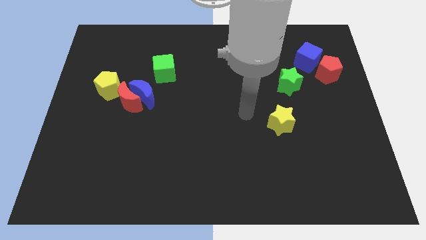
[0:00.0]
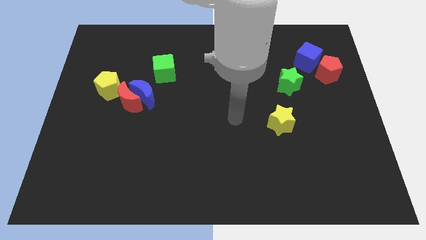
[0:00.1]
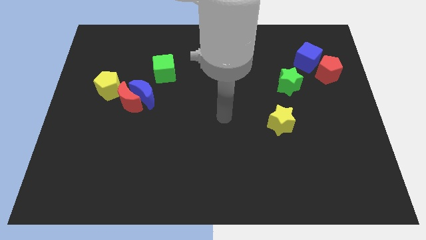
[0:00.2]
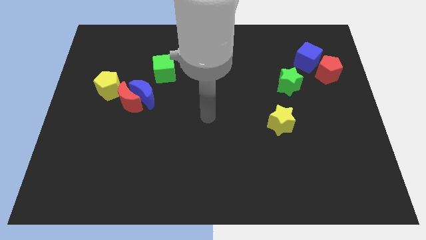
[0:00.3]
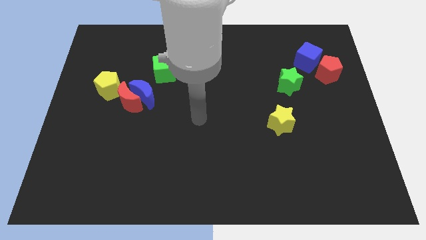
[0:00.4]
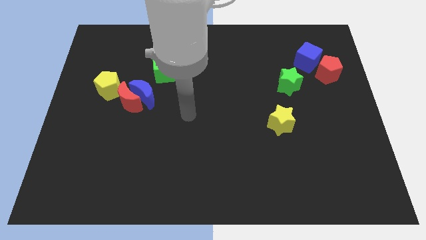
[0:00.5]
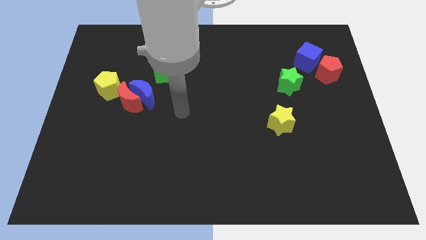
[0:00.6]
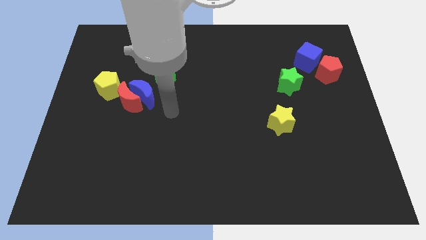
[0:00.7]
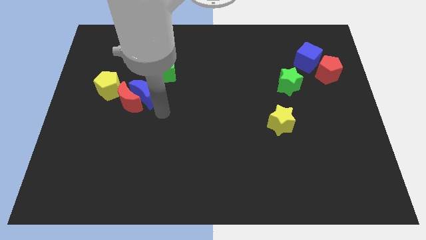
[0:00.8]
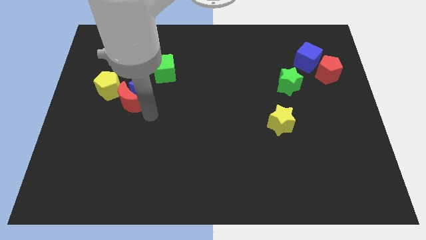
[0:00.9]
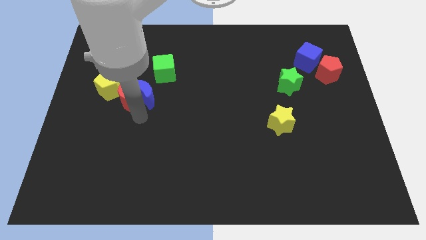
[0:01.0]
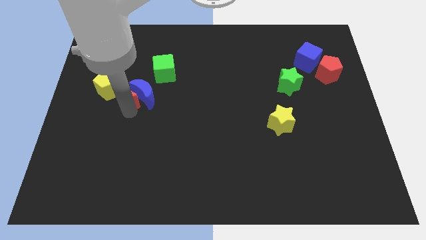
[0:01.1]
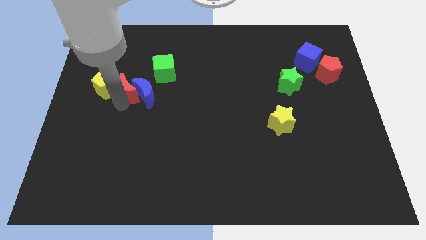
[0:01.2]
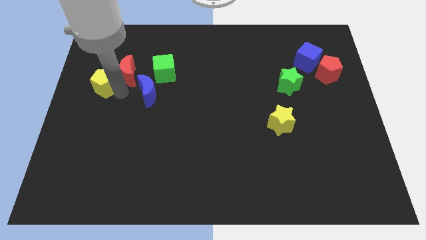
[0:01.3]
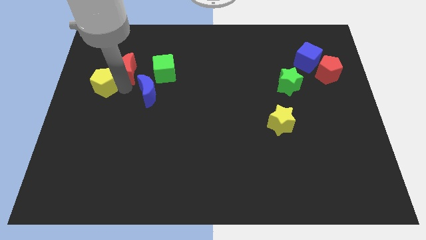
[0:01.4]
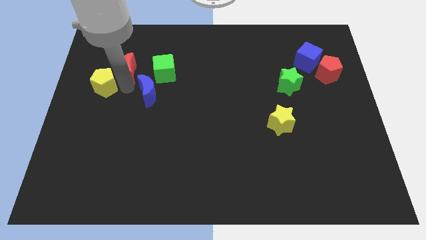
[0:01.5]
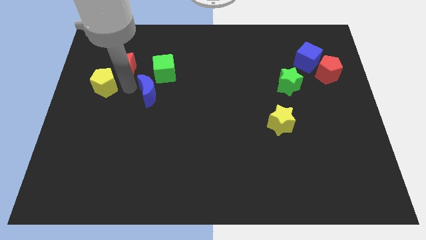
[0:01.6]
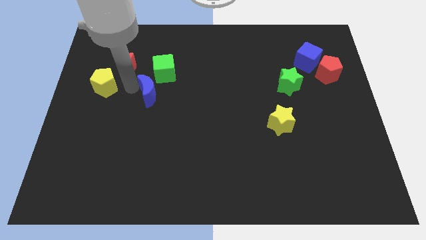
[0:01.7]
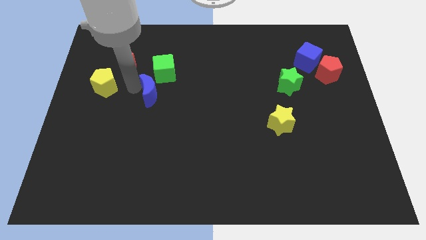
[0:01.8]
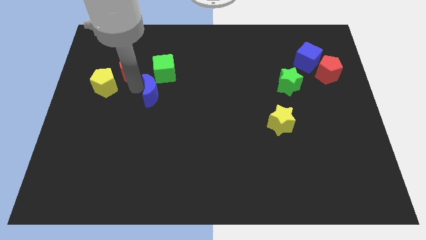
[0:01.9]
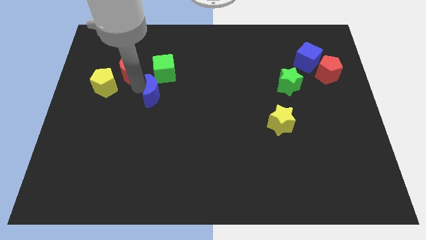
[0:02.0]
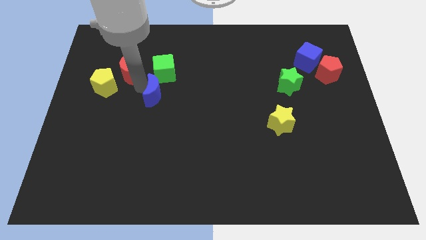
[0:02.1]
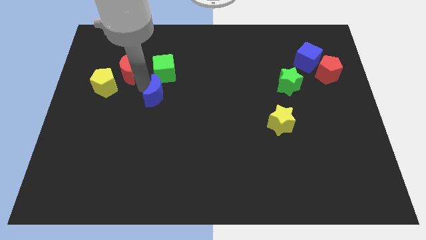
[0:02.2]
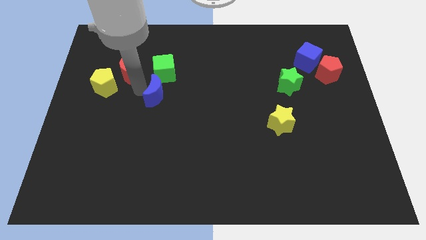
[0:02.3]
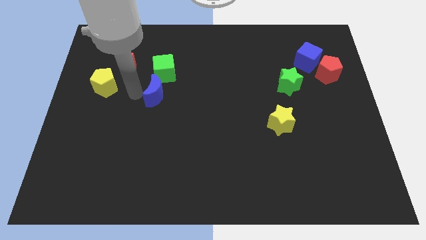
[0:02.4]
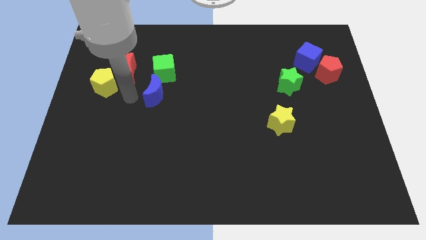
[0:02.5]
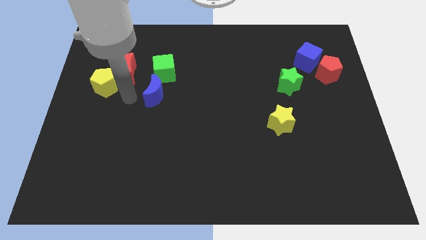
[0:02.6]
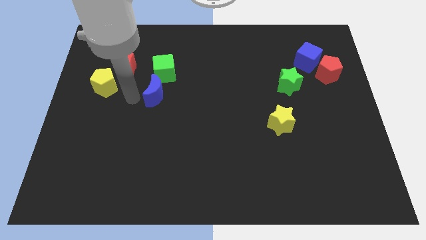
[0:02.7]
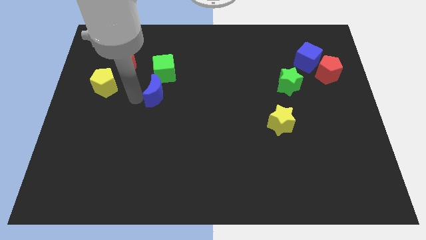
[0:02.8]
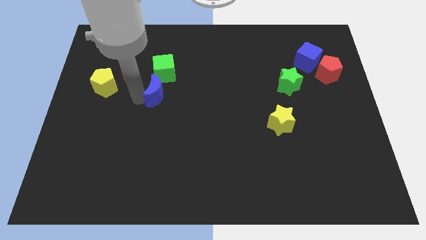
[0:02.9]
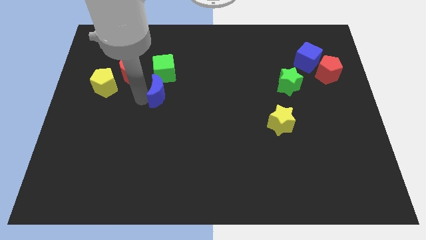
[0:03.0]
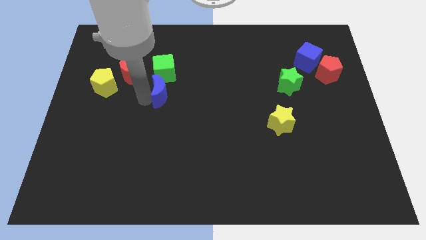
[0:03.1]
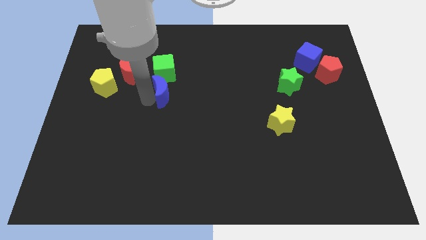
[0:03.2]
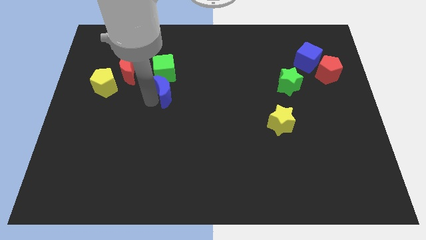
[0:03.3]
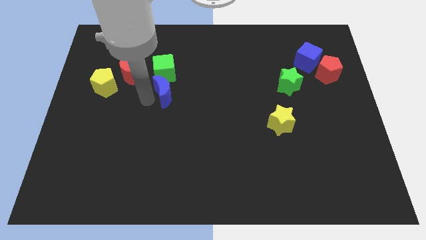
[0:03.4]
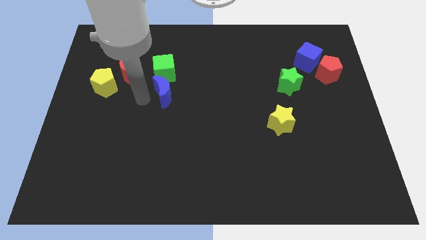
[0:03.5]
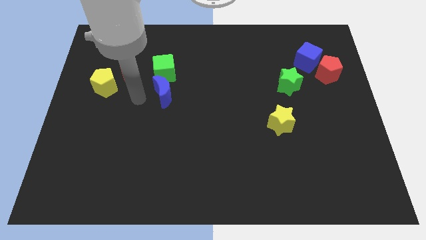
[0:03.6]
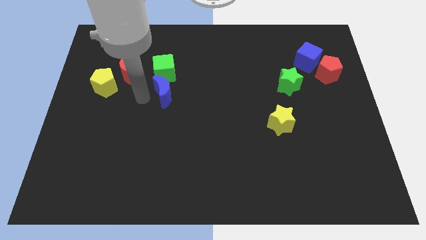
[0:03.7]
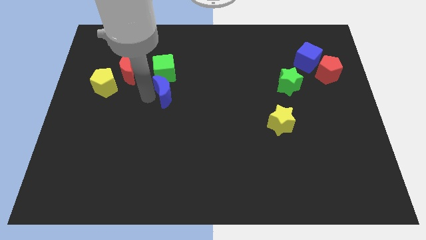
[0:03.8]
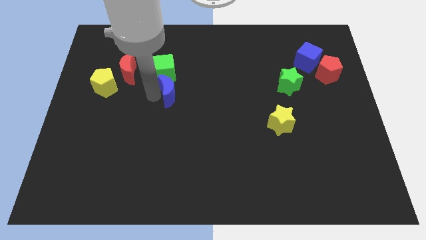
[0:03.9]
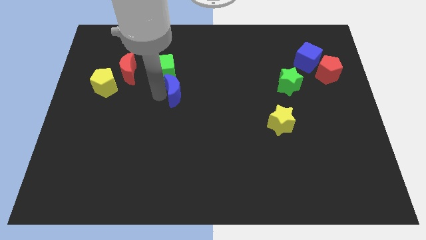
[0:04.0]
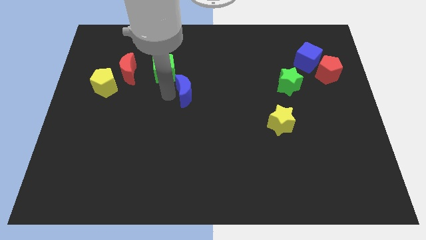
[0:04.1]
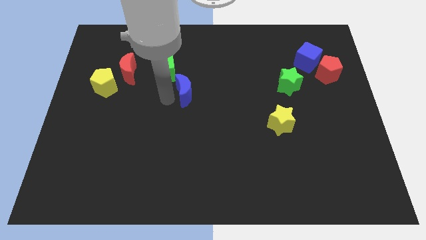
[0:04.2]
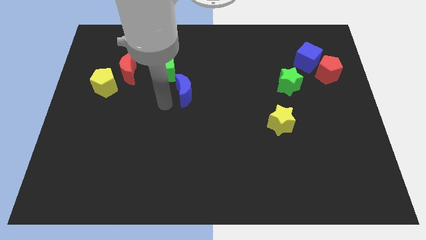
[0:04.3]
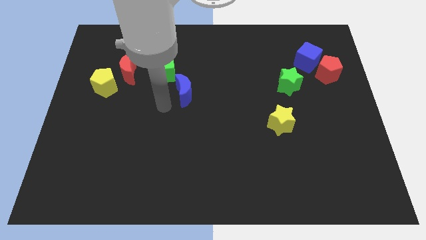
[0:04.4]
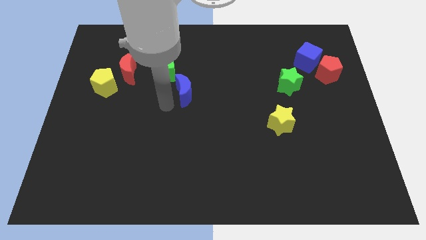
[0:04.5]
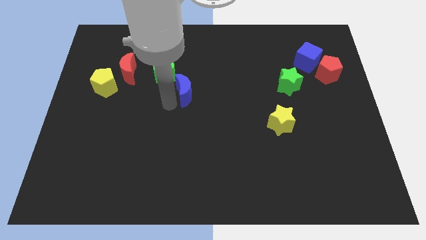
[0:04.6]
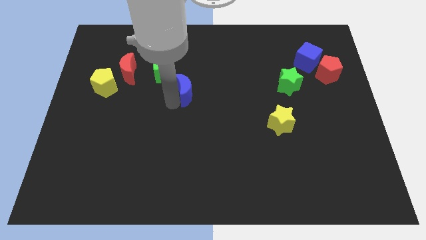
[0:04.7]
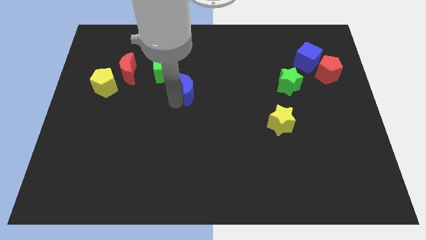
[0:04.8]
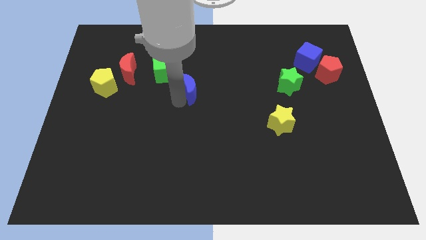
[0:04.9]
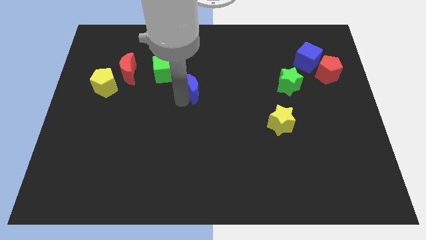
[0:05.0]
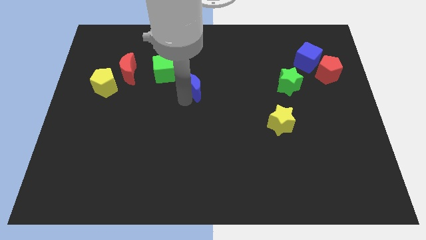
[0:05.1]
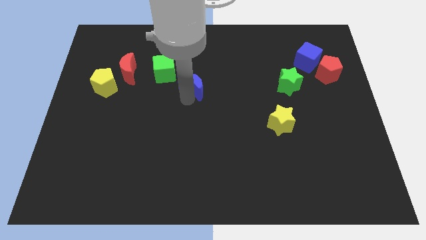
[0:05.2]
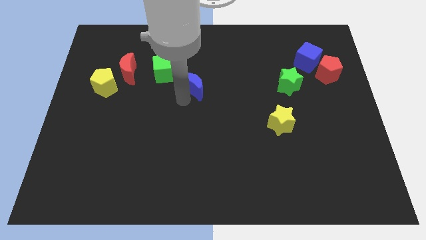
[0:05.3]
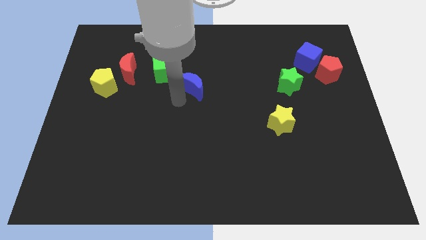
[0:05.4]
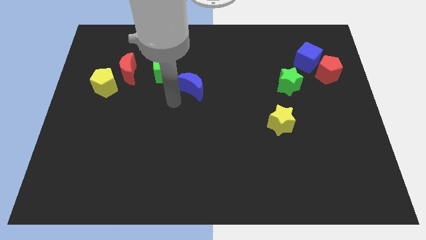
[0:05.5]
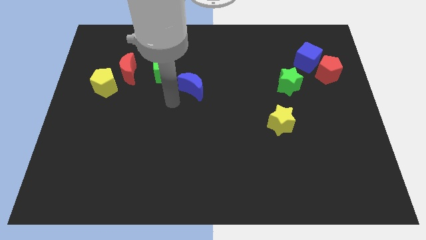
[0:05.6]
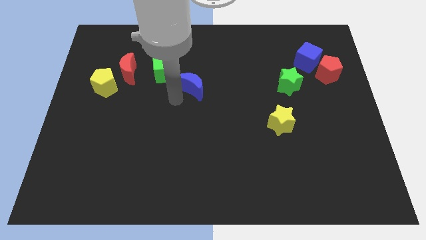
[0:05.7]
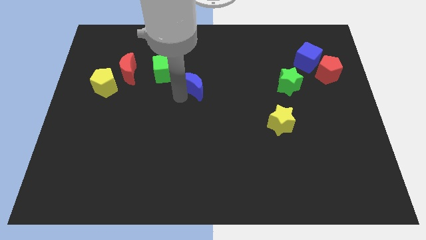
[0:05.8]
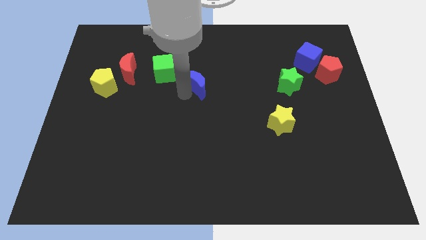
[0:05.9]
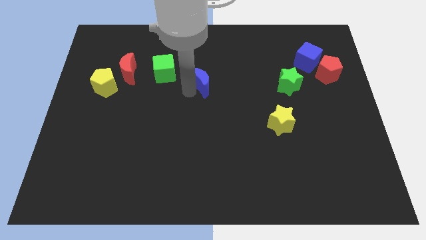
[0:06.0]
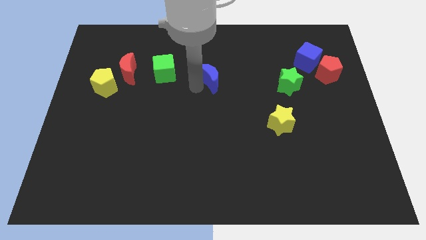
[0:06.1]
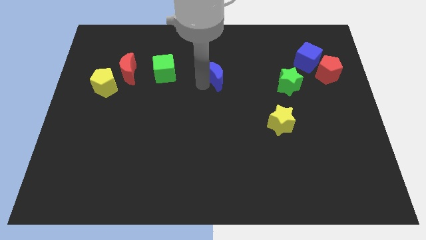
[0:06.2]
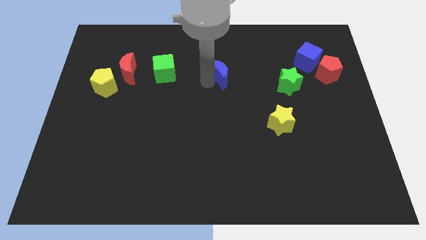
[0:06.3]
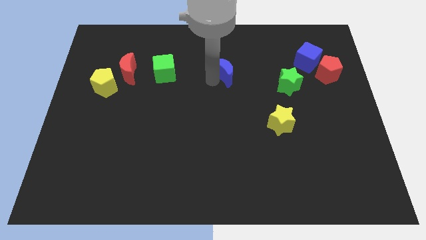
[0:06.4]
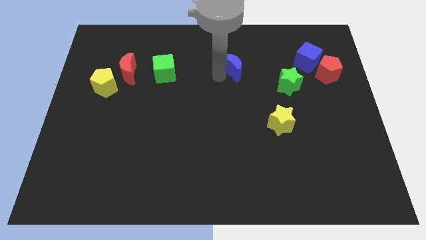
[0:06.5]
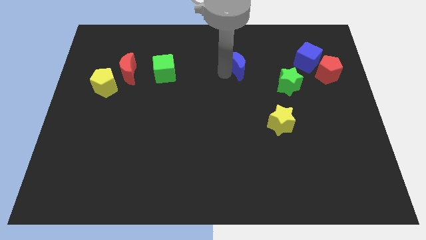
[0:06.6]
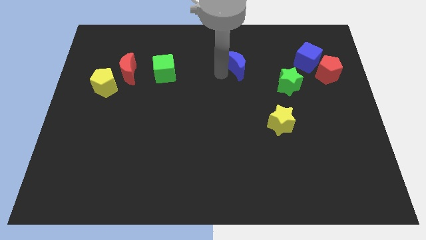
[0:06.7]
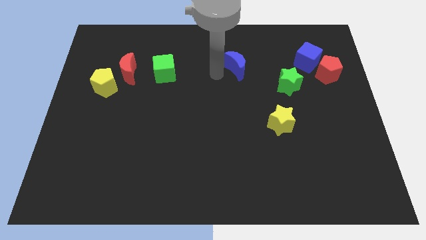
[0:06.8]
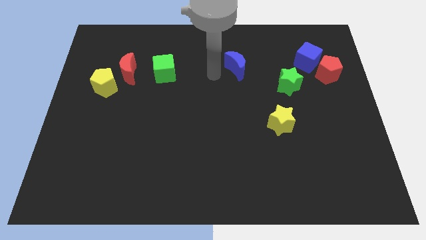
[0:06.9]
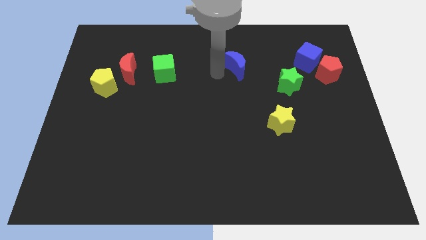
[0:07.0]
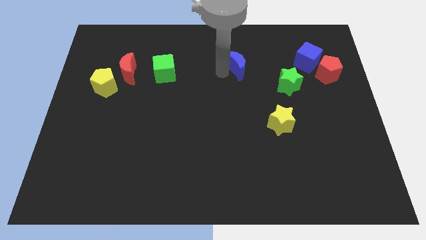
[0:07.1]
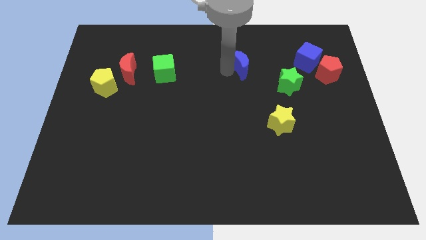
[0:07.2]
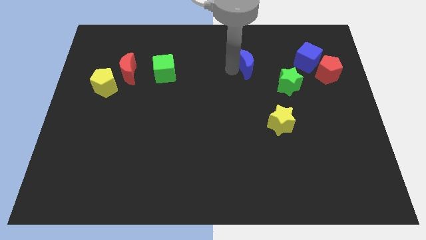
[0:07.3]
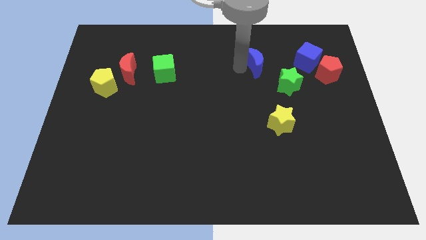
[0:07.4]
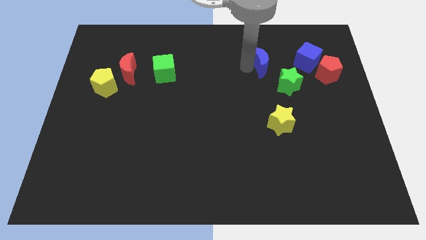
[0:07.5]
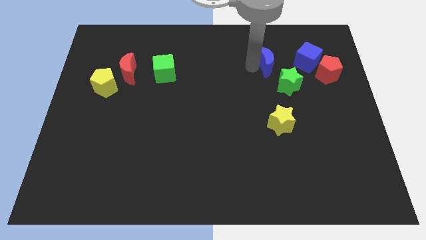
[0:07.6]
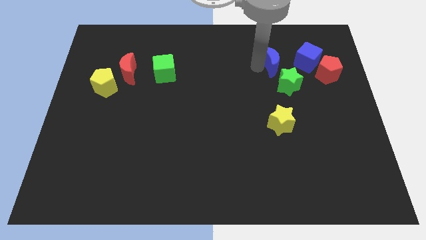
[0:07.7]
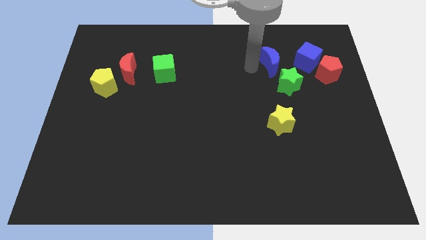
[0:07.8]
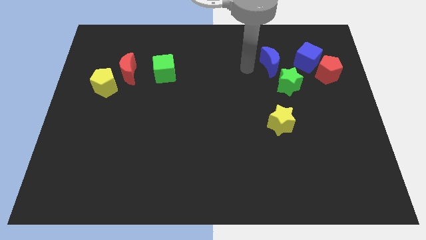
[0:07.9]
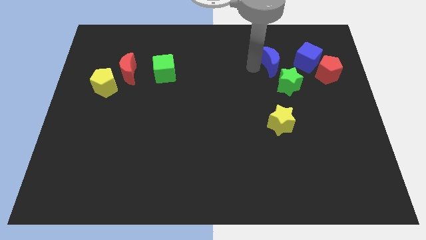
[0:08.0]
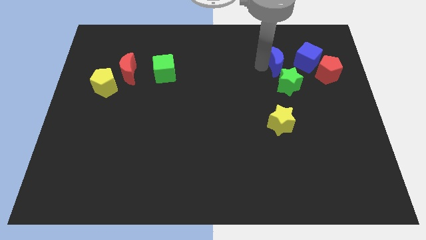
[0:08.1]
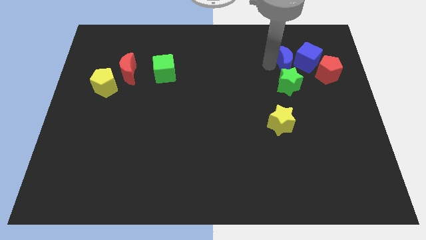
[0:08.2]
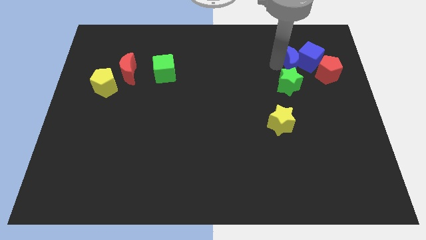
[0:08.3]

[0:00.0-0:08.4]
slide the blue moon to the top left of the red pentagon
